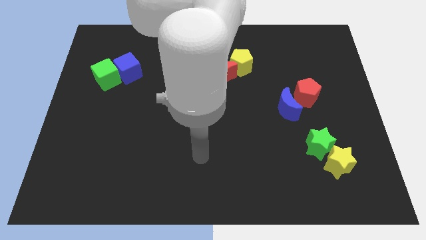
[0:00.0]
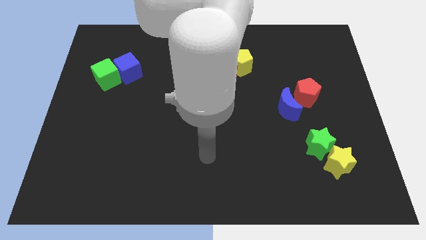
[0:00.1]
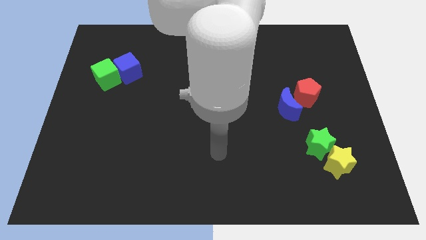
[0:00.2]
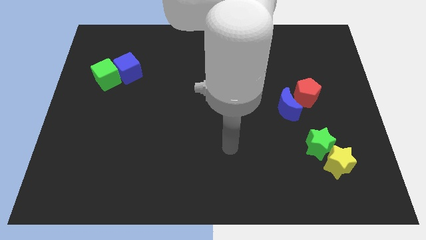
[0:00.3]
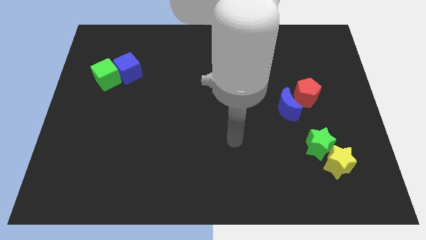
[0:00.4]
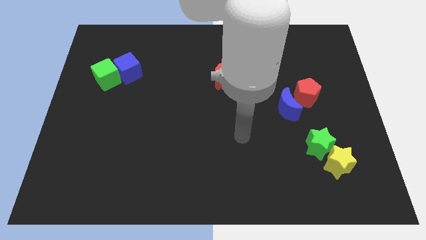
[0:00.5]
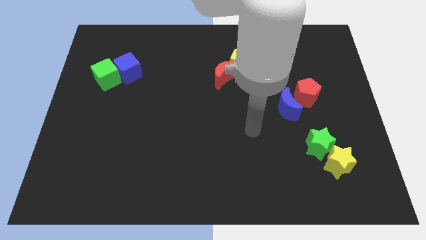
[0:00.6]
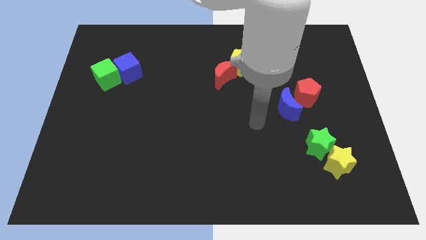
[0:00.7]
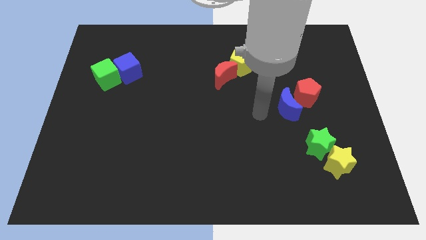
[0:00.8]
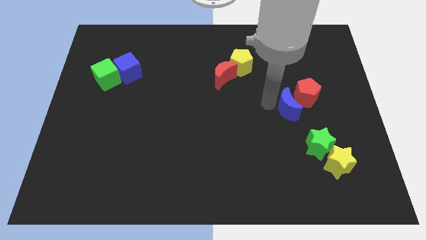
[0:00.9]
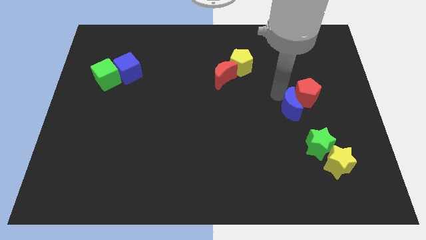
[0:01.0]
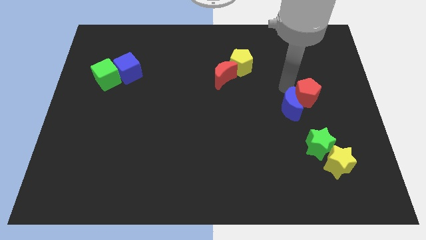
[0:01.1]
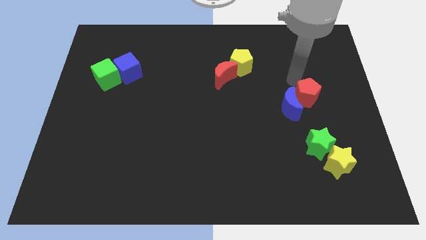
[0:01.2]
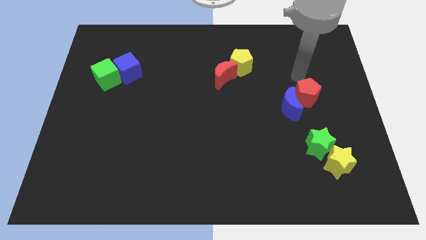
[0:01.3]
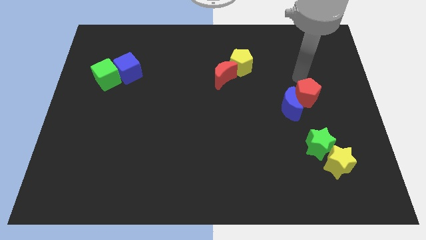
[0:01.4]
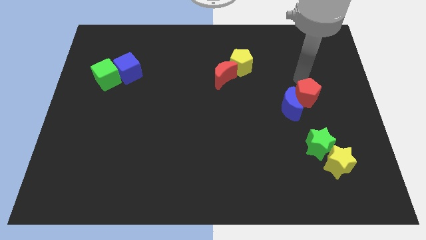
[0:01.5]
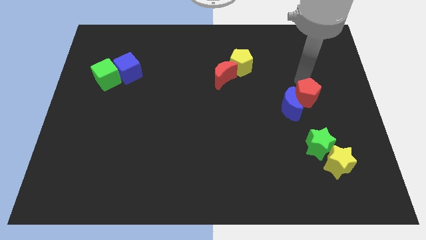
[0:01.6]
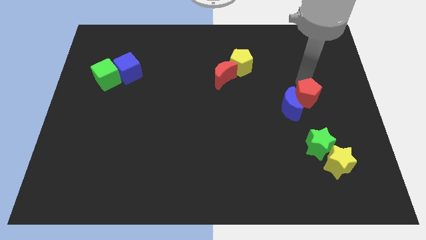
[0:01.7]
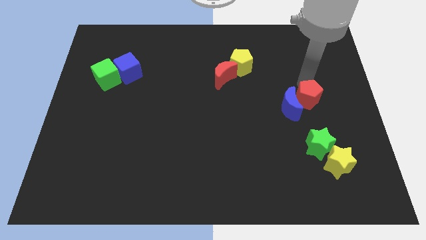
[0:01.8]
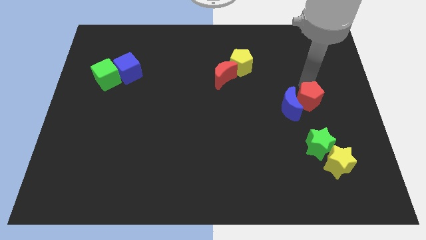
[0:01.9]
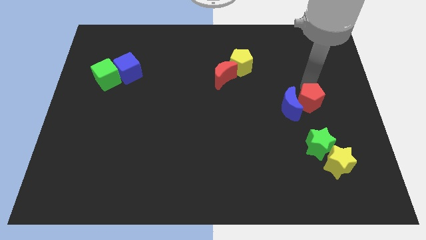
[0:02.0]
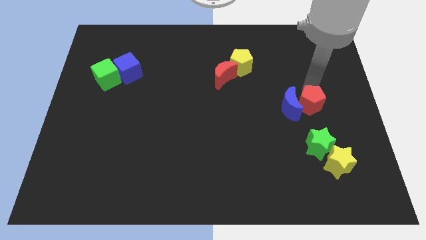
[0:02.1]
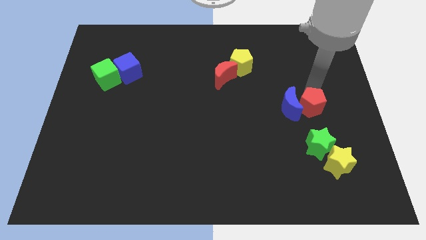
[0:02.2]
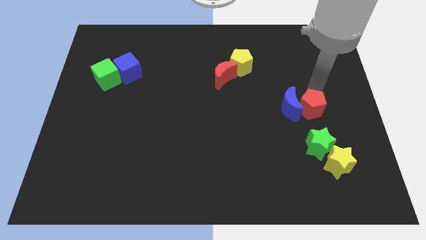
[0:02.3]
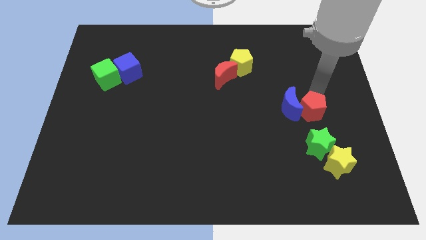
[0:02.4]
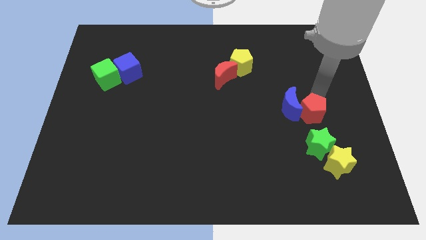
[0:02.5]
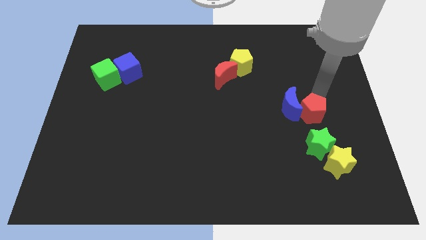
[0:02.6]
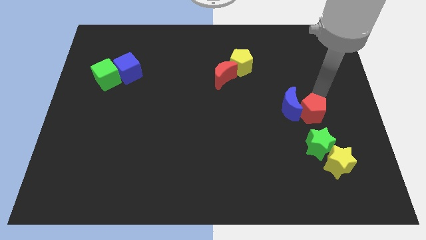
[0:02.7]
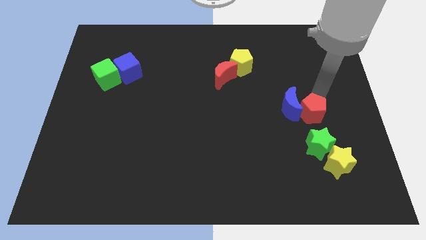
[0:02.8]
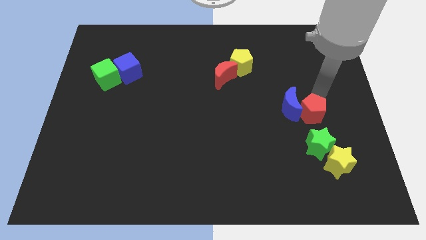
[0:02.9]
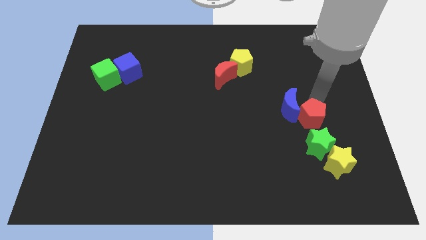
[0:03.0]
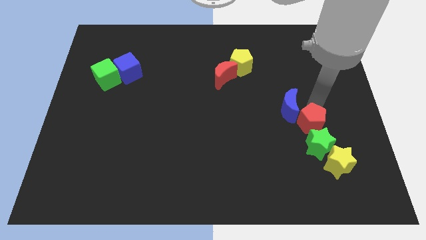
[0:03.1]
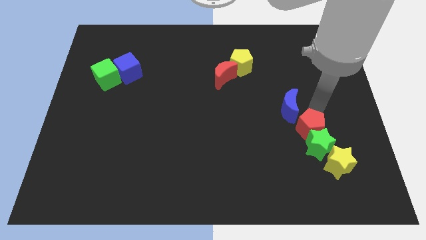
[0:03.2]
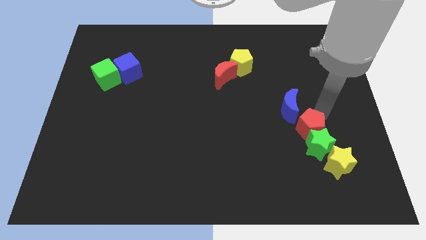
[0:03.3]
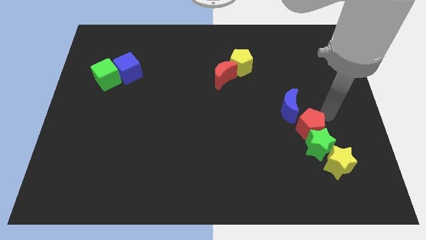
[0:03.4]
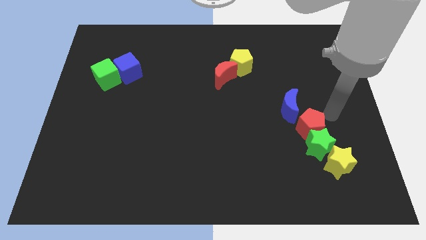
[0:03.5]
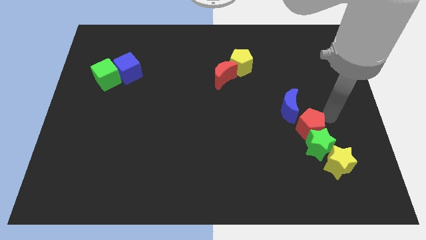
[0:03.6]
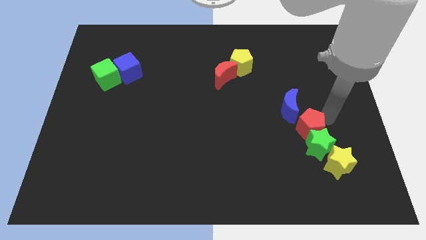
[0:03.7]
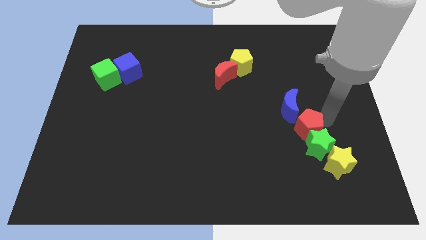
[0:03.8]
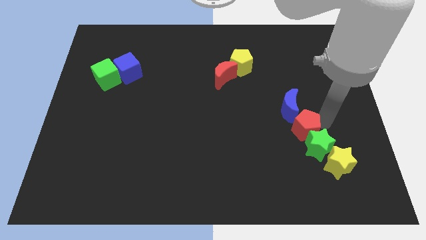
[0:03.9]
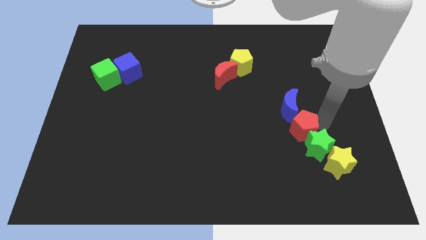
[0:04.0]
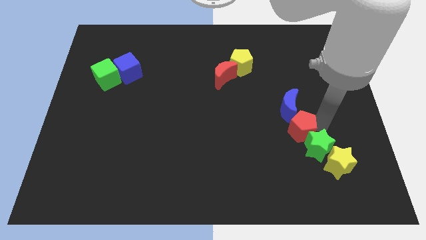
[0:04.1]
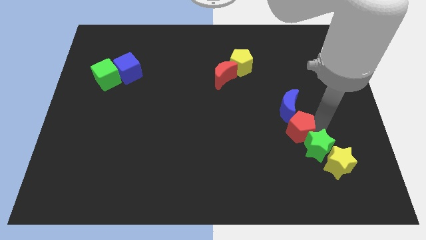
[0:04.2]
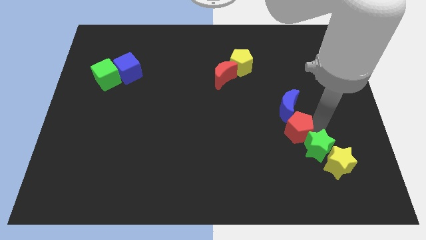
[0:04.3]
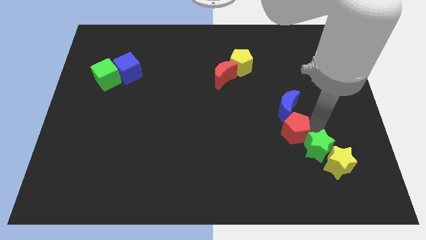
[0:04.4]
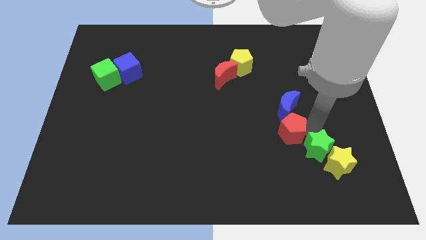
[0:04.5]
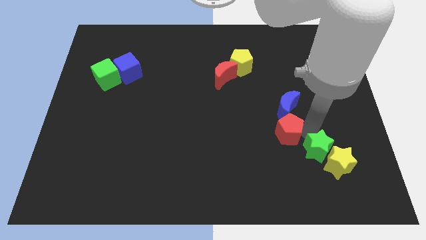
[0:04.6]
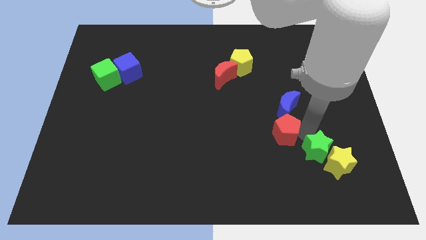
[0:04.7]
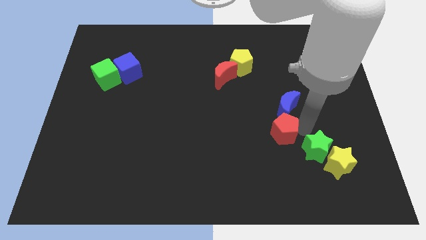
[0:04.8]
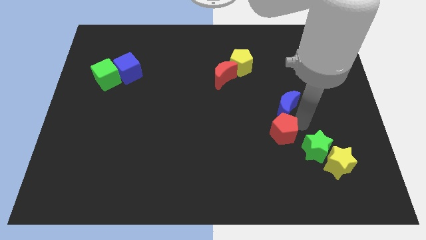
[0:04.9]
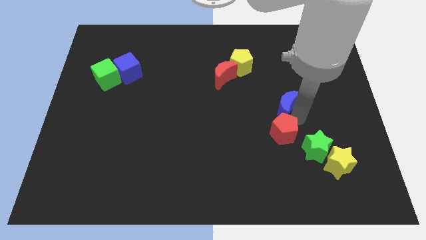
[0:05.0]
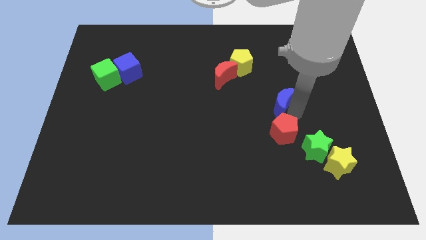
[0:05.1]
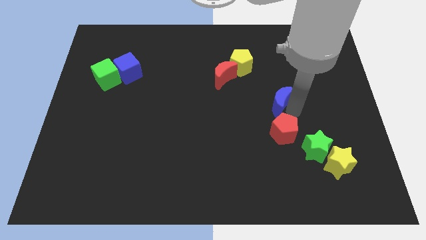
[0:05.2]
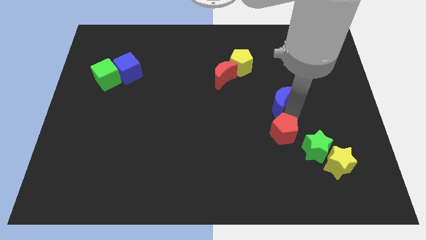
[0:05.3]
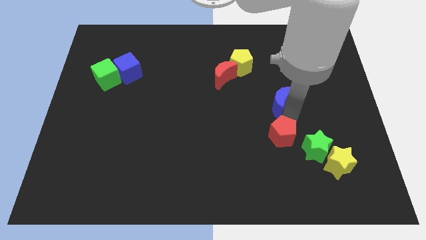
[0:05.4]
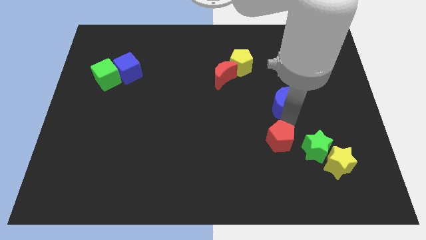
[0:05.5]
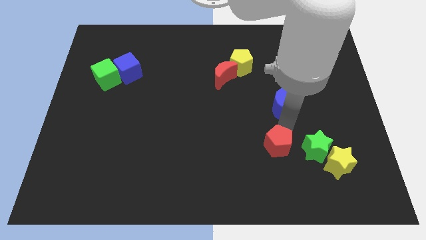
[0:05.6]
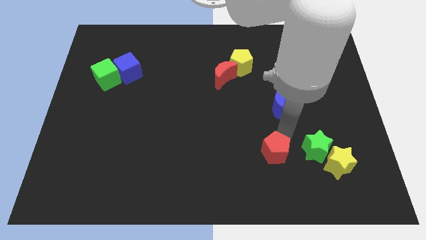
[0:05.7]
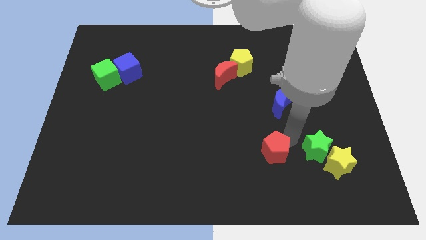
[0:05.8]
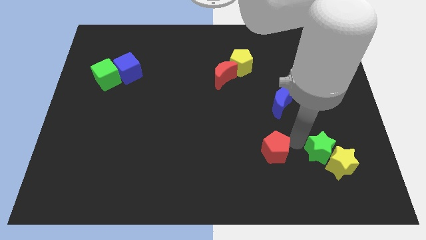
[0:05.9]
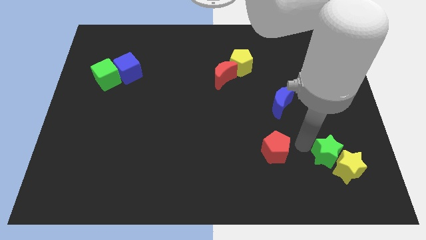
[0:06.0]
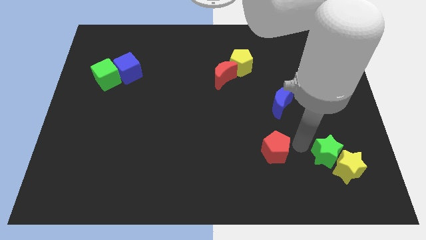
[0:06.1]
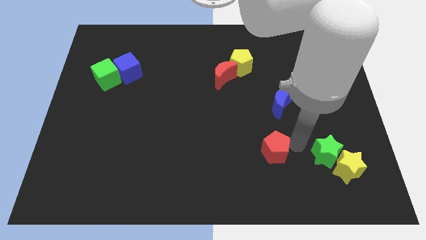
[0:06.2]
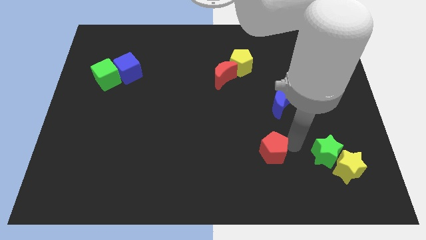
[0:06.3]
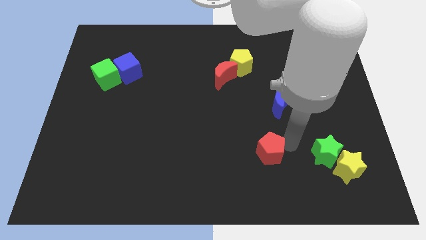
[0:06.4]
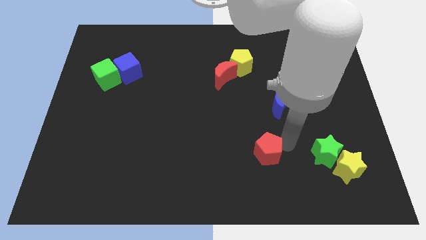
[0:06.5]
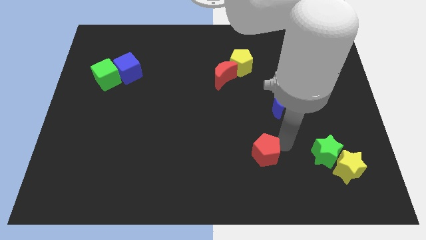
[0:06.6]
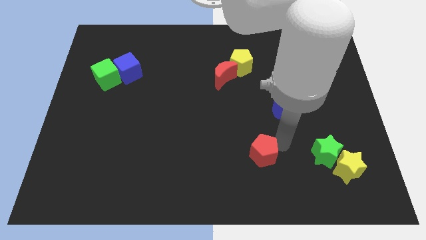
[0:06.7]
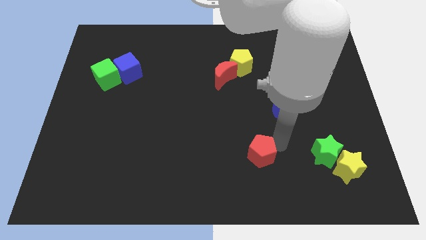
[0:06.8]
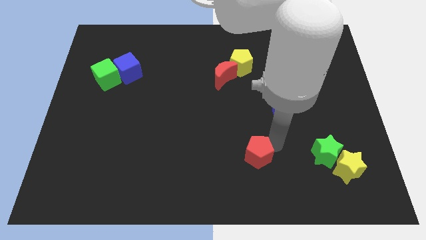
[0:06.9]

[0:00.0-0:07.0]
move the red pentagon down and then to the left

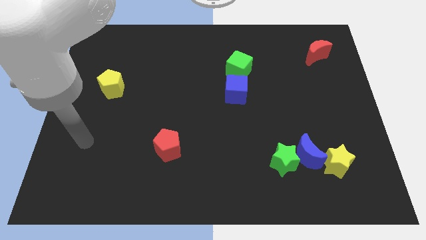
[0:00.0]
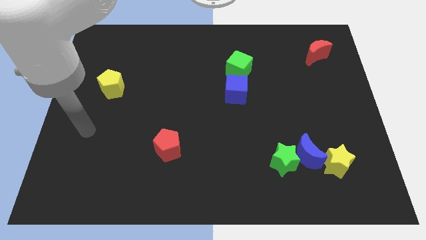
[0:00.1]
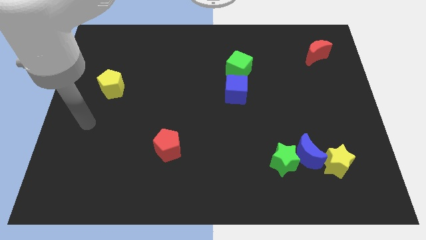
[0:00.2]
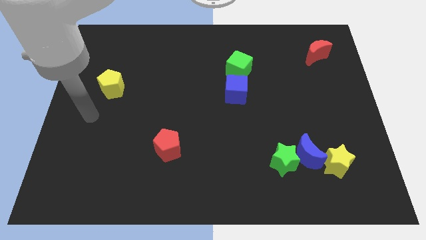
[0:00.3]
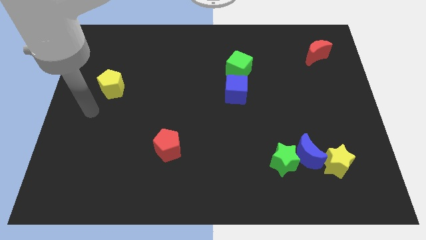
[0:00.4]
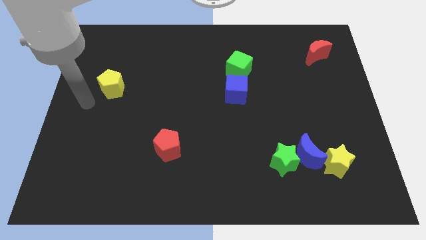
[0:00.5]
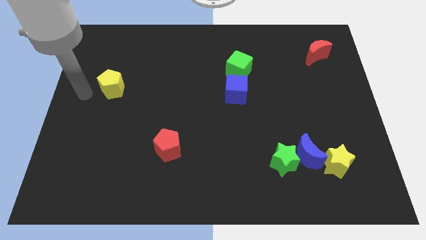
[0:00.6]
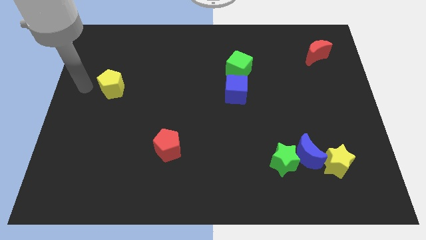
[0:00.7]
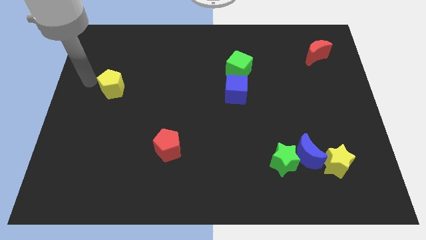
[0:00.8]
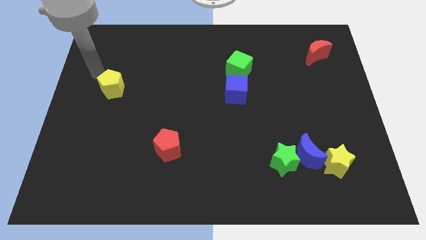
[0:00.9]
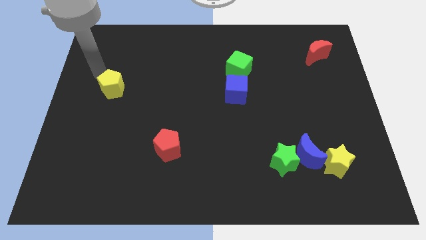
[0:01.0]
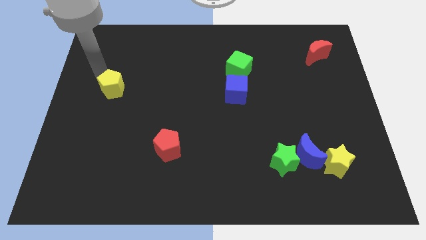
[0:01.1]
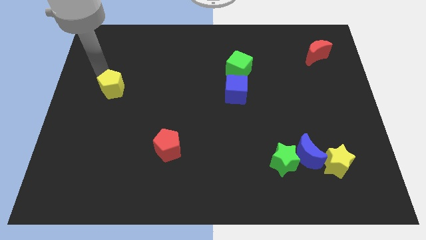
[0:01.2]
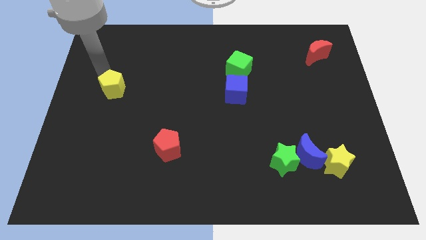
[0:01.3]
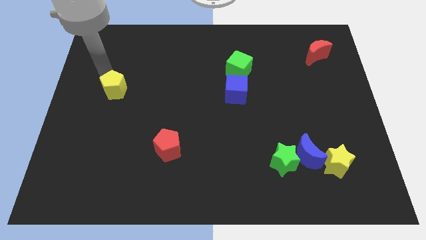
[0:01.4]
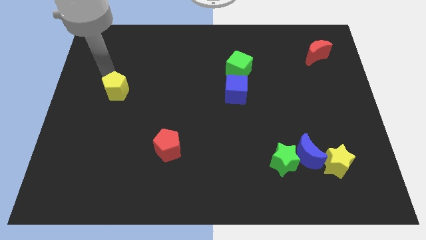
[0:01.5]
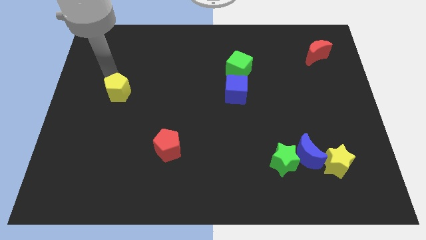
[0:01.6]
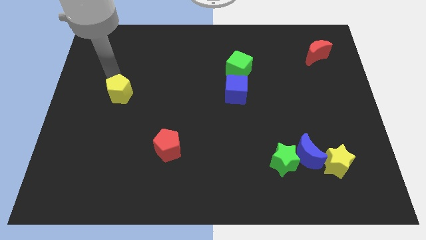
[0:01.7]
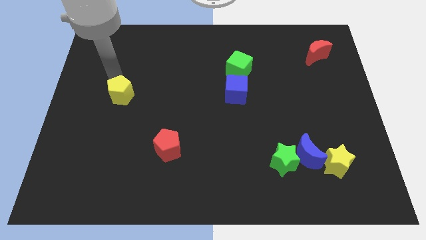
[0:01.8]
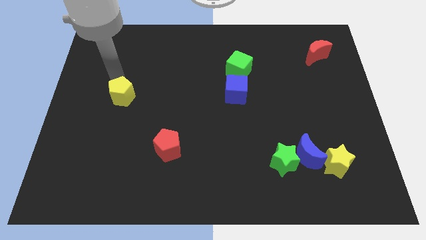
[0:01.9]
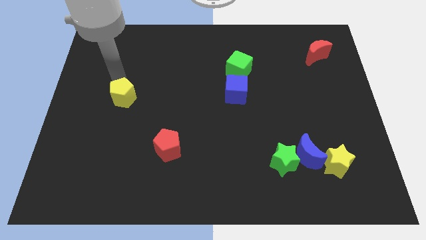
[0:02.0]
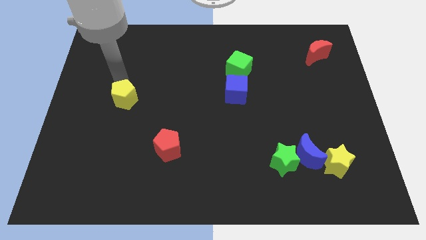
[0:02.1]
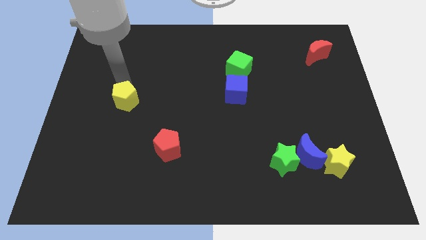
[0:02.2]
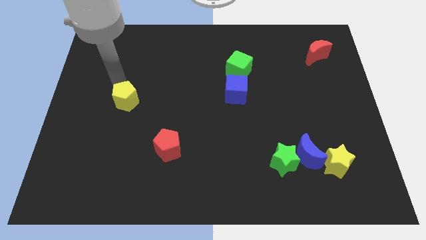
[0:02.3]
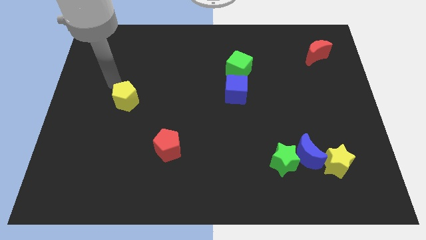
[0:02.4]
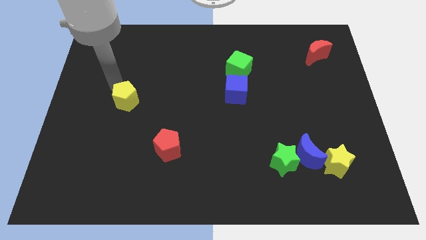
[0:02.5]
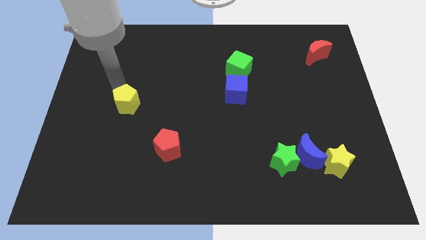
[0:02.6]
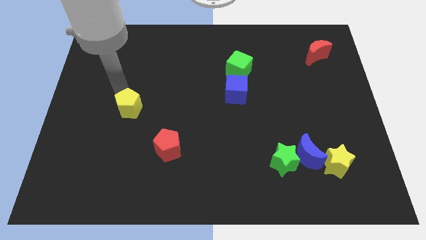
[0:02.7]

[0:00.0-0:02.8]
move the yellow pentagon slightly down and to the right diagonally
